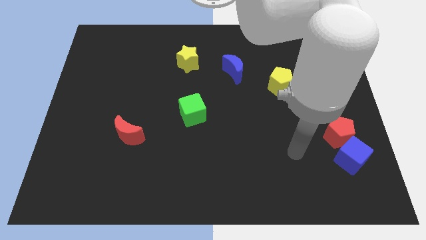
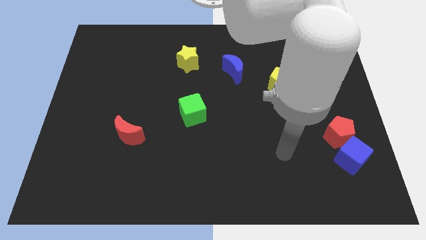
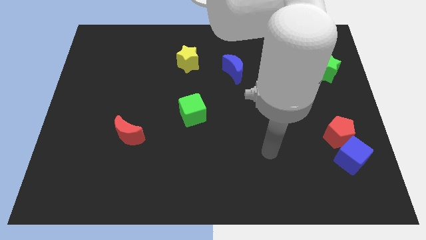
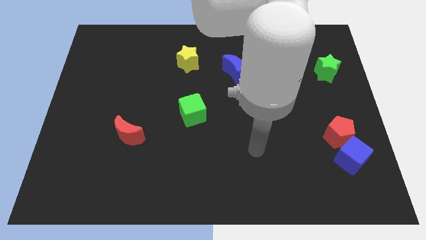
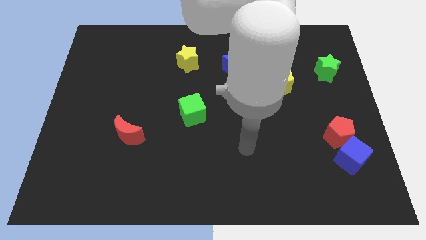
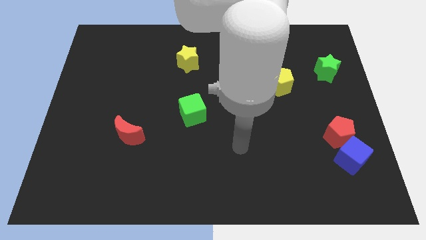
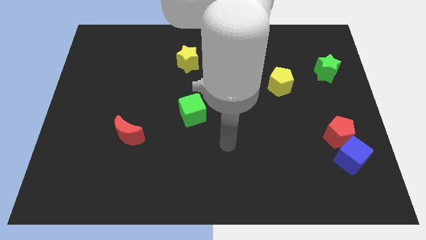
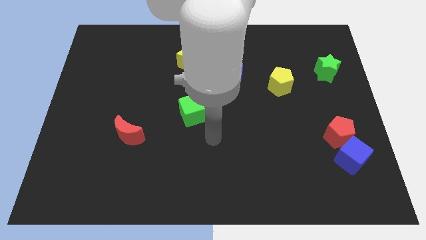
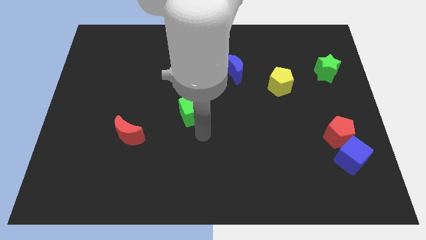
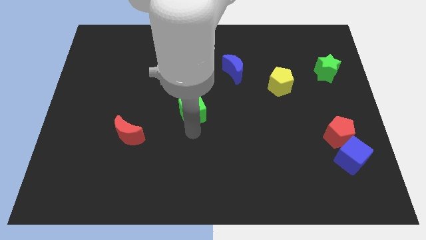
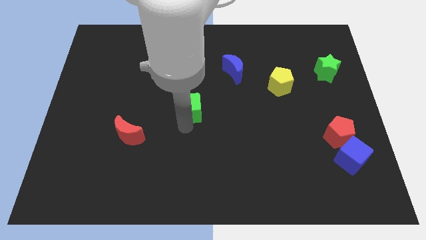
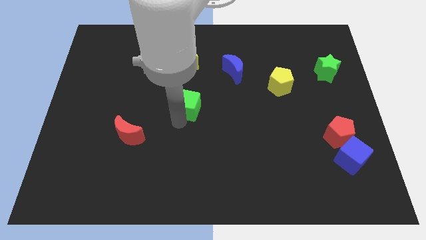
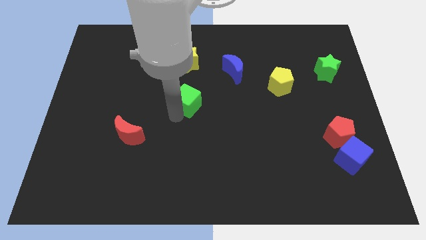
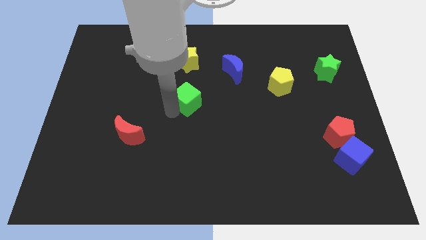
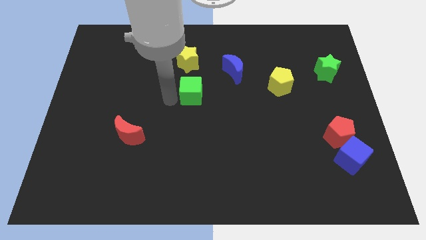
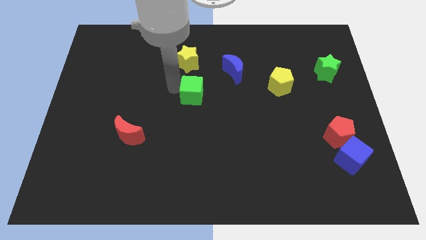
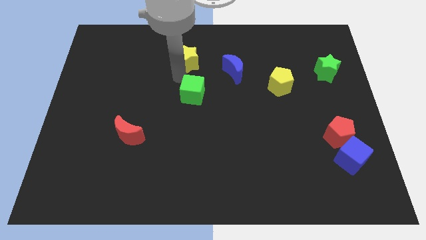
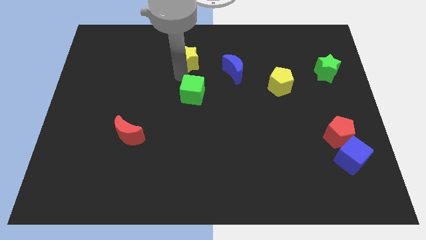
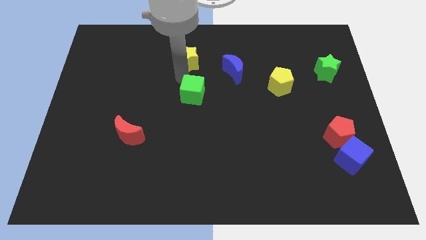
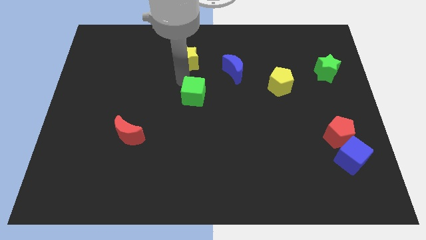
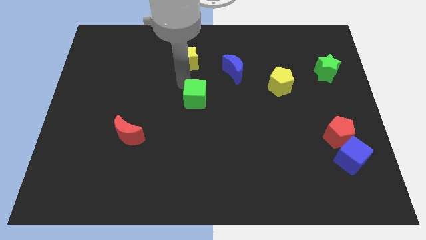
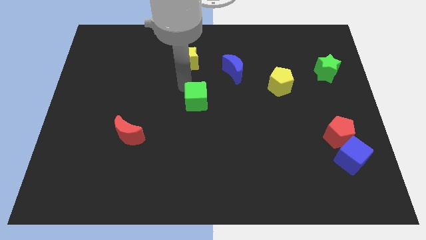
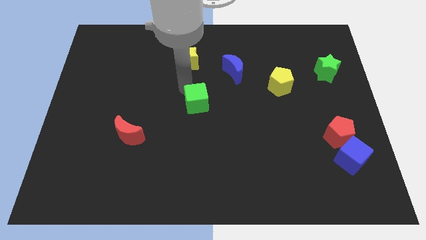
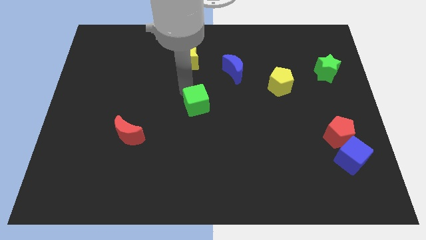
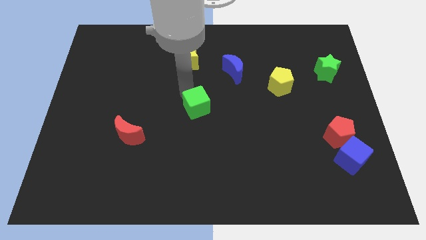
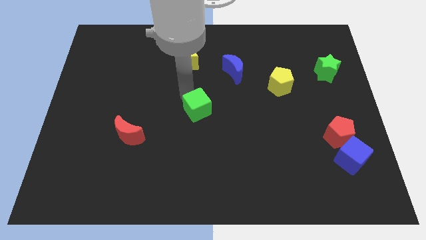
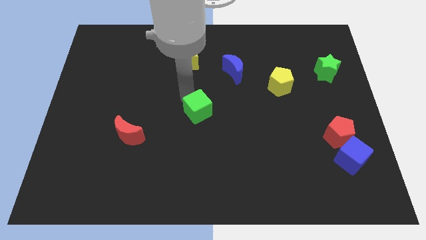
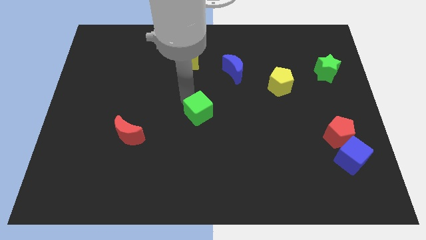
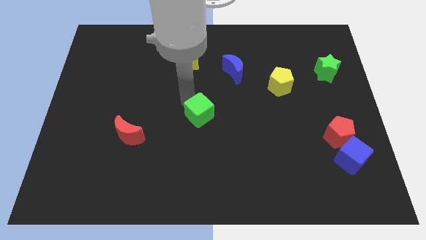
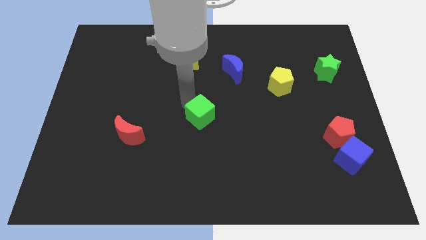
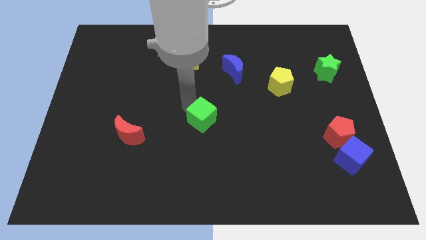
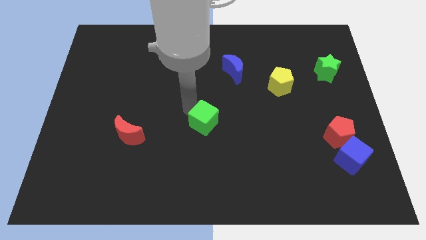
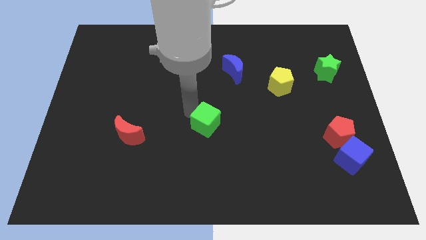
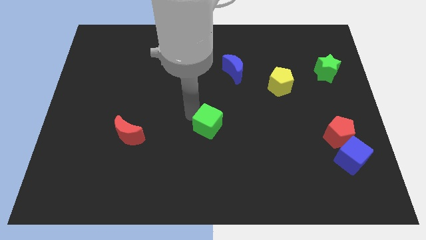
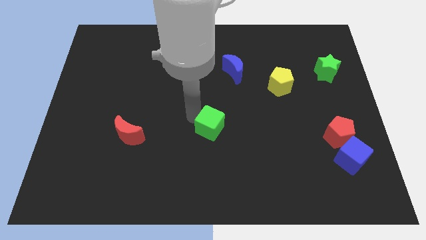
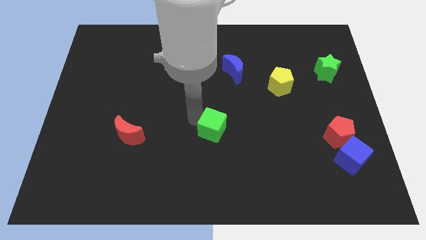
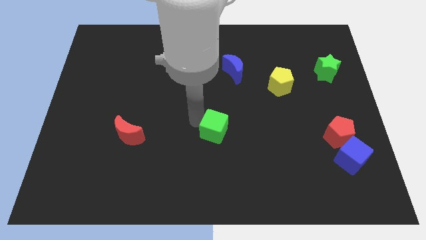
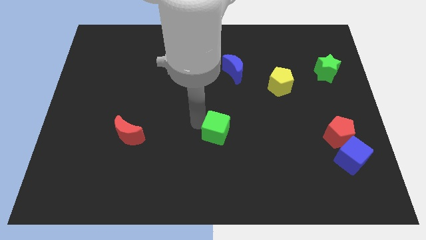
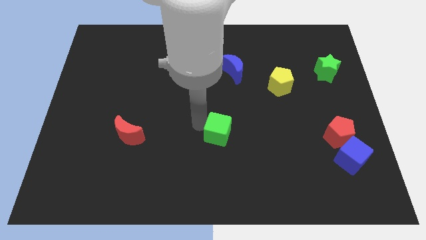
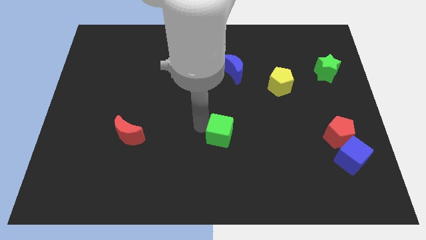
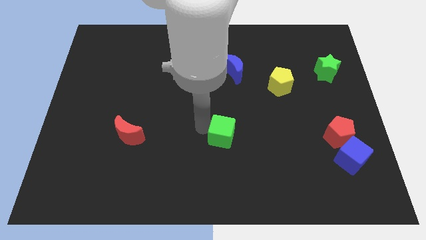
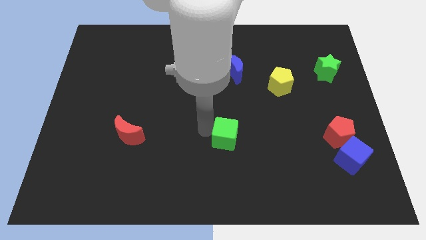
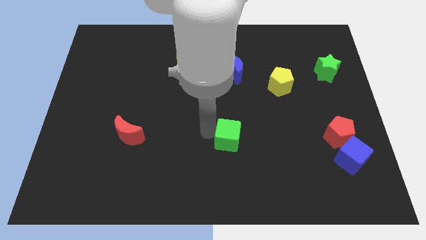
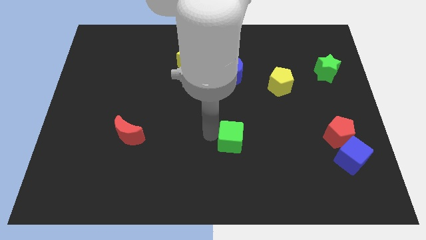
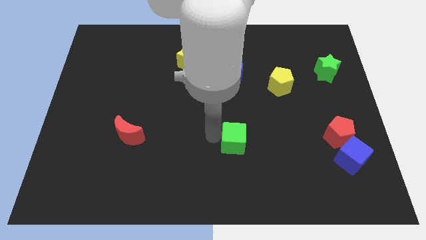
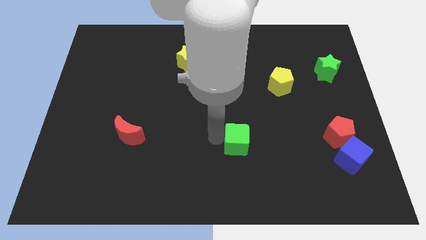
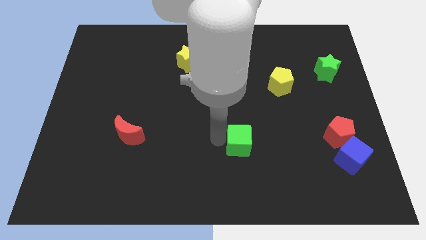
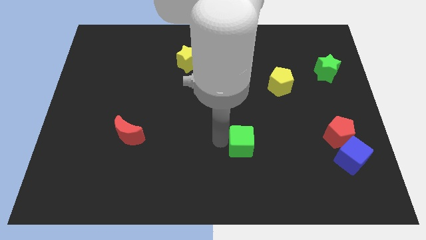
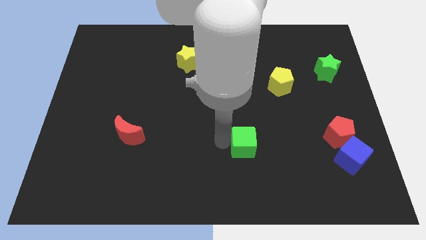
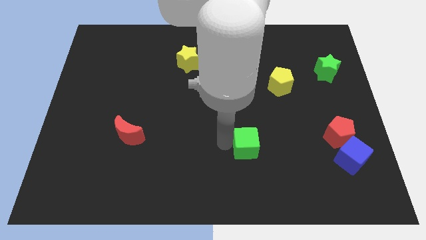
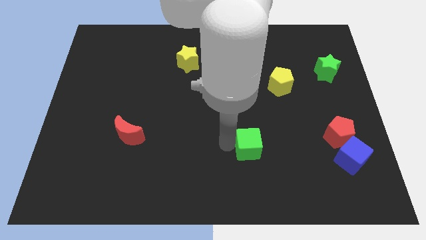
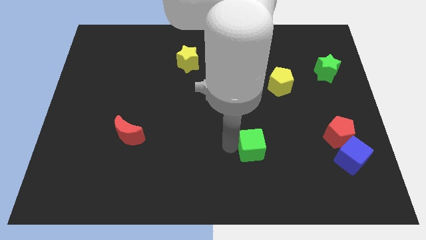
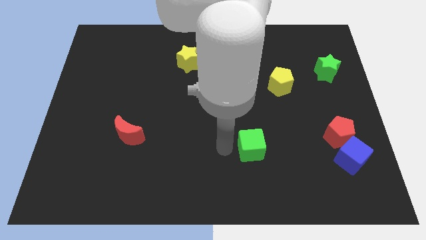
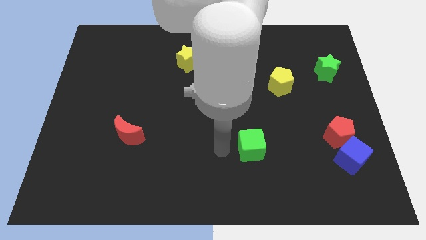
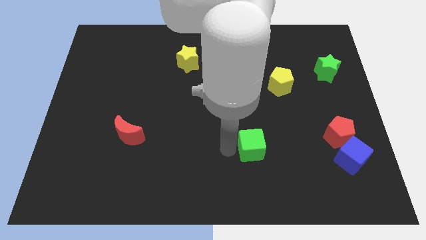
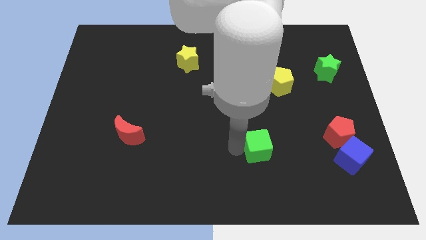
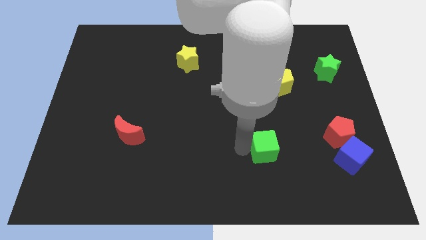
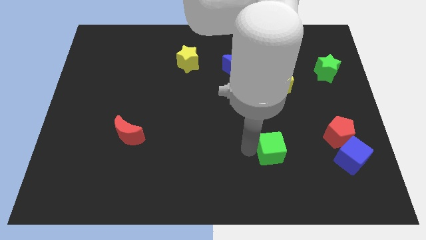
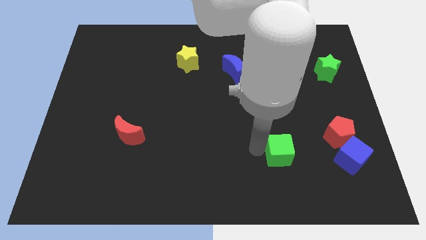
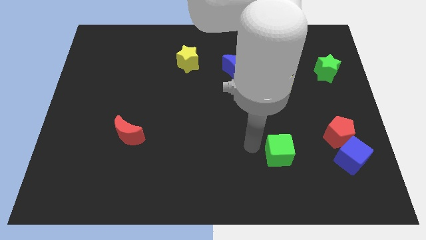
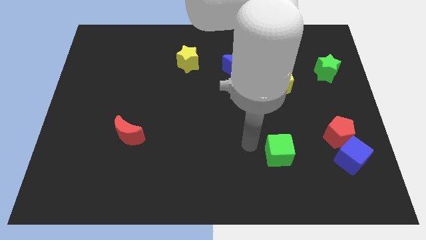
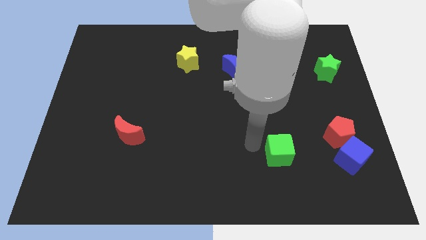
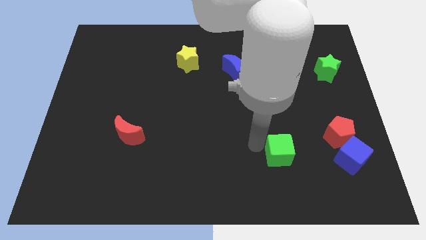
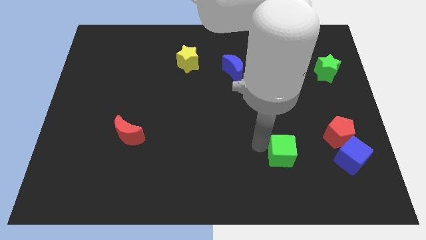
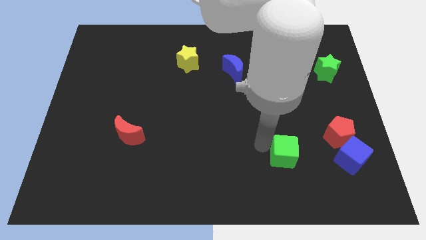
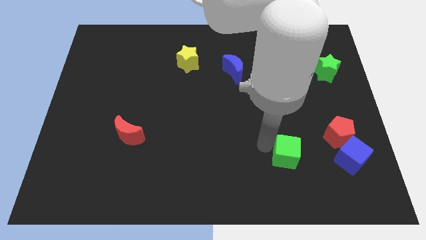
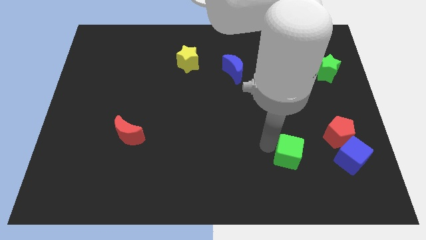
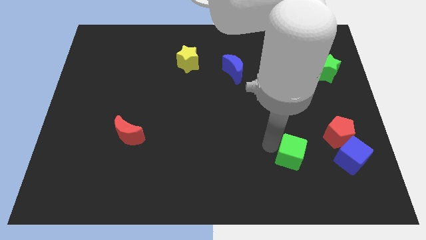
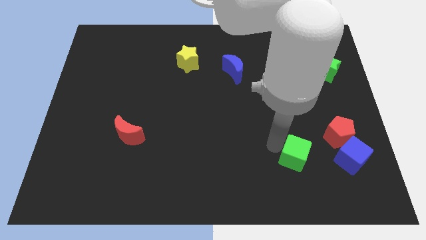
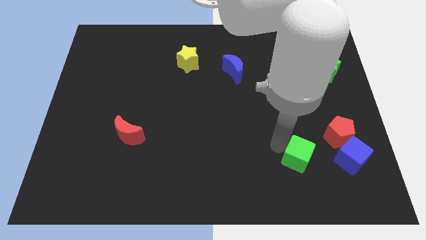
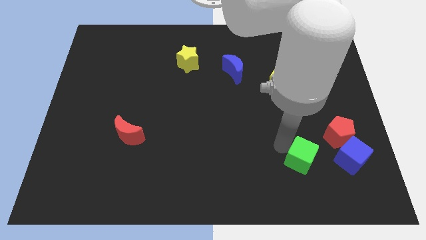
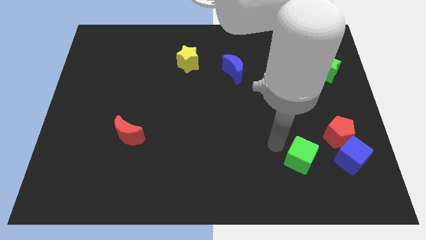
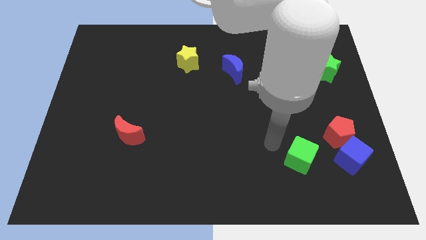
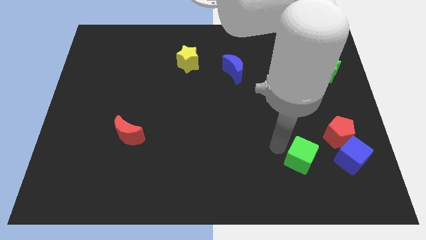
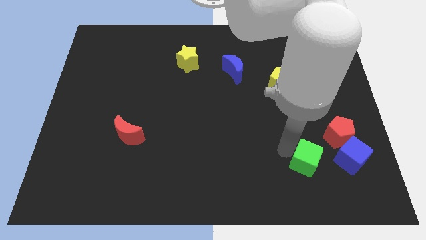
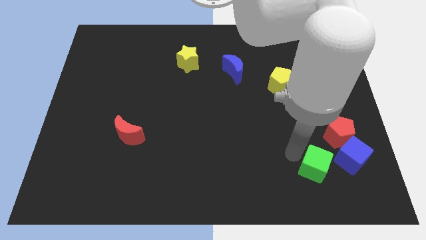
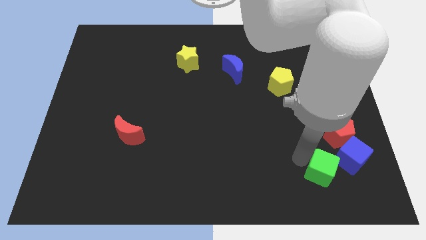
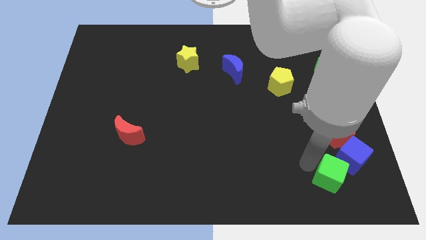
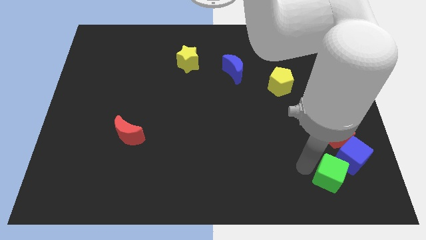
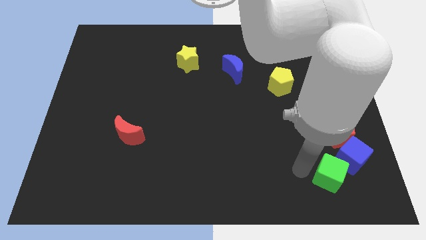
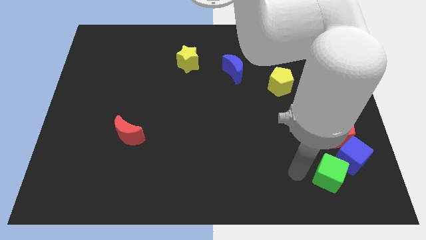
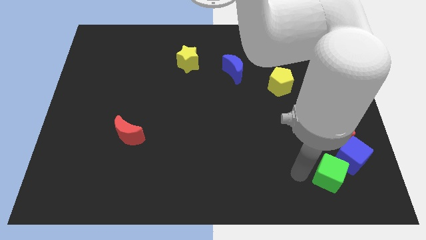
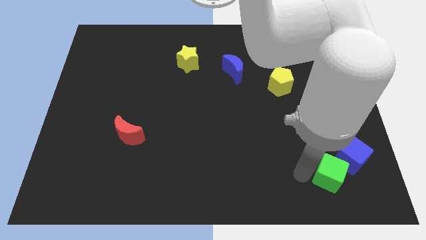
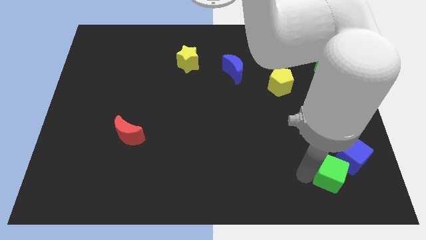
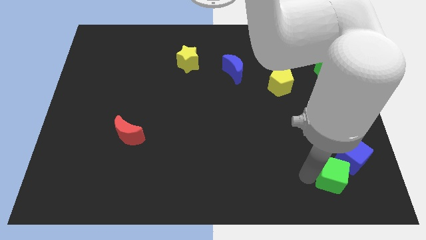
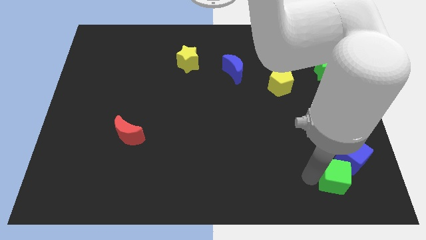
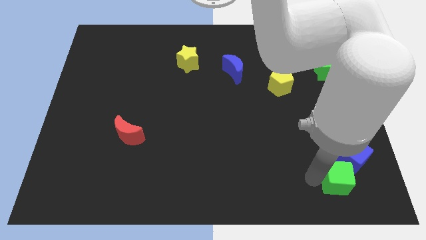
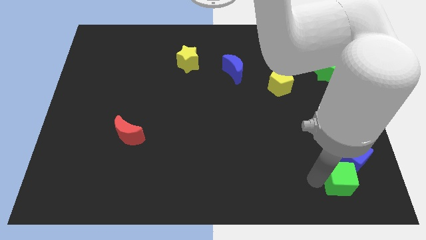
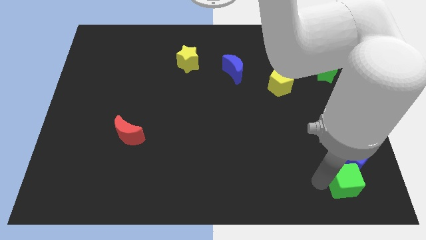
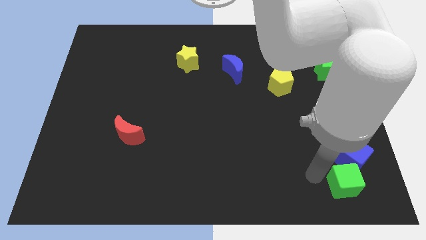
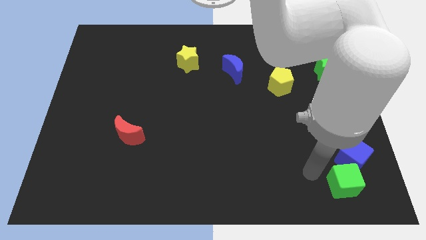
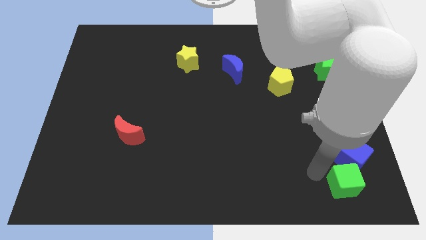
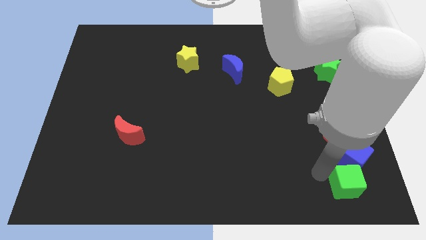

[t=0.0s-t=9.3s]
slide the green cube to the bottom right of the board
